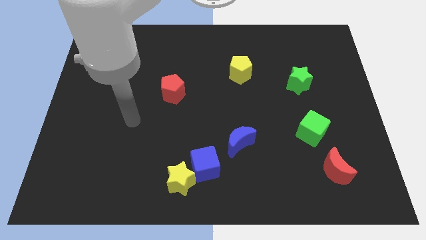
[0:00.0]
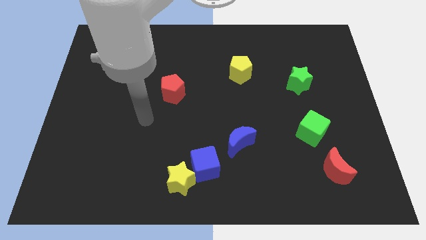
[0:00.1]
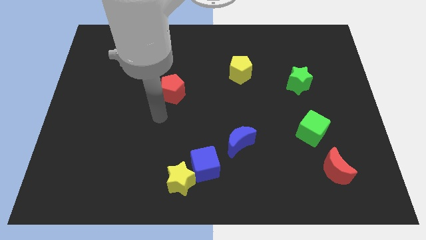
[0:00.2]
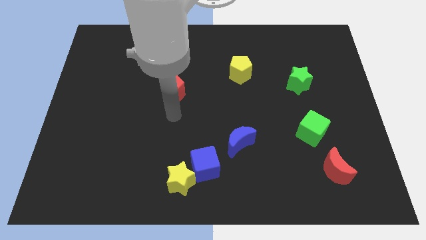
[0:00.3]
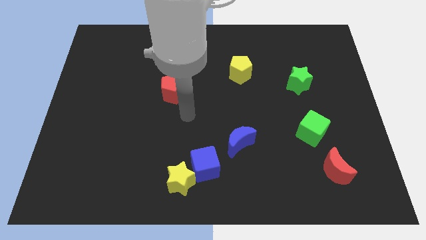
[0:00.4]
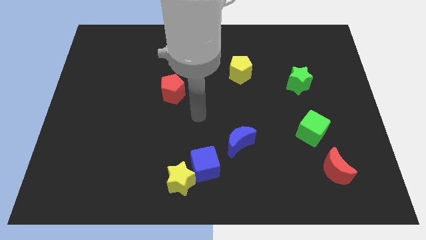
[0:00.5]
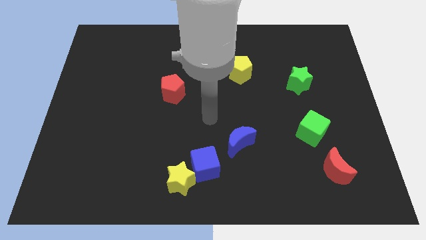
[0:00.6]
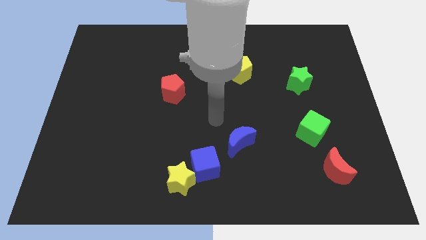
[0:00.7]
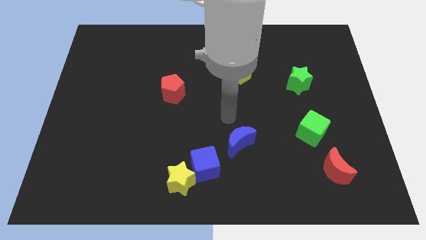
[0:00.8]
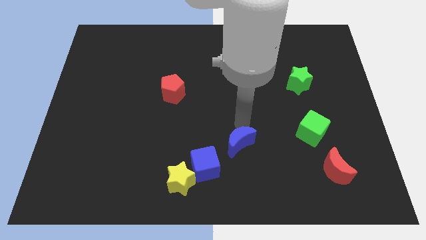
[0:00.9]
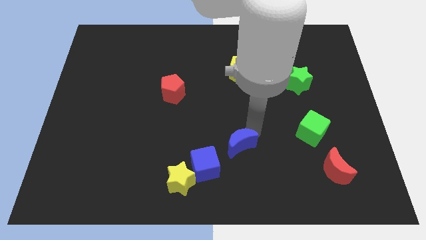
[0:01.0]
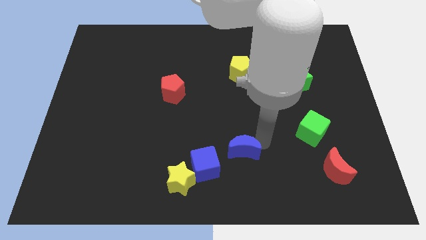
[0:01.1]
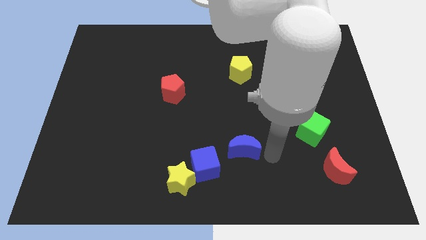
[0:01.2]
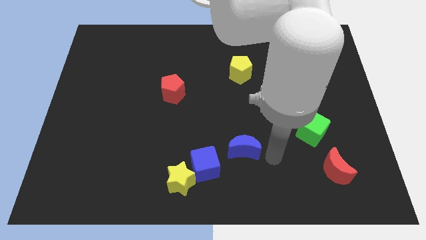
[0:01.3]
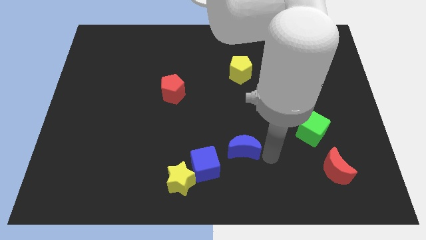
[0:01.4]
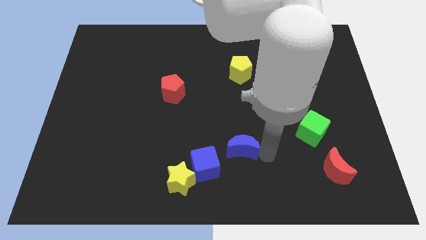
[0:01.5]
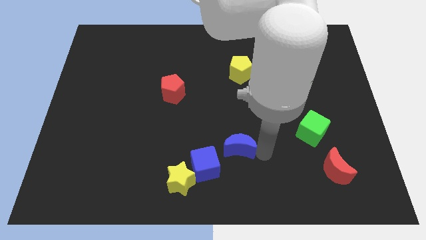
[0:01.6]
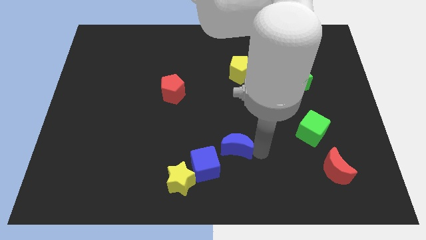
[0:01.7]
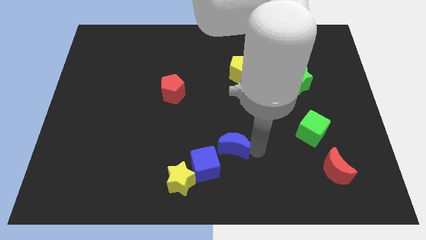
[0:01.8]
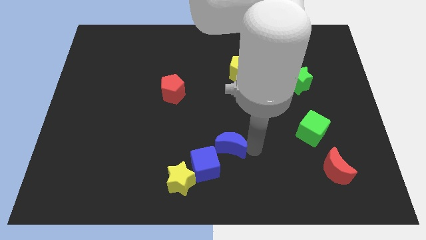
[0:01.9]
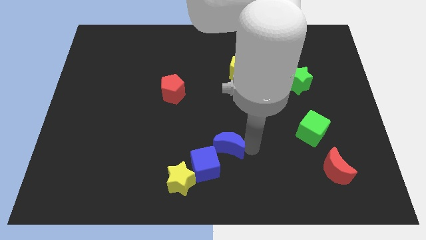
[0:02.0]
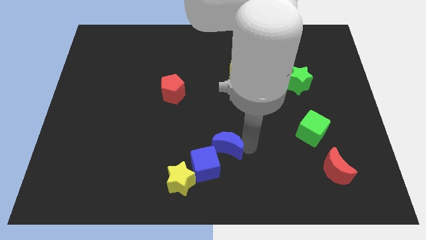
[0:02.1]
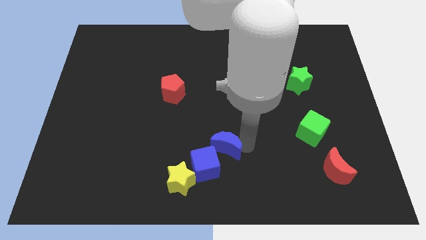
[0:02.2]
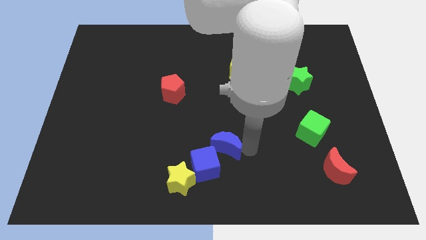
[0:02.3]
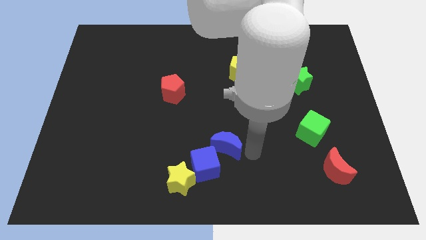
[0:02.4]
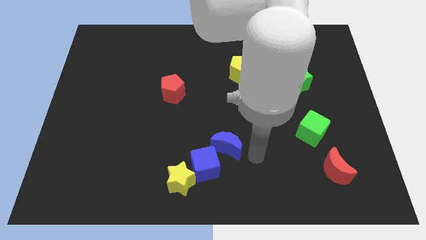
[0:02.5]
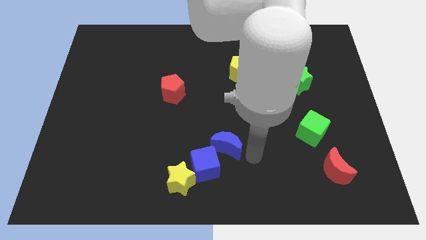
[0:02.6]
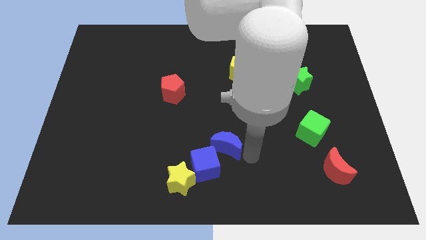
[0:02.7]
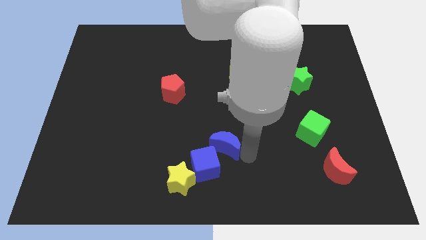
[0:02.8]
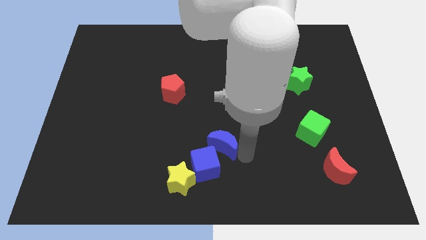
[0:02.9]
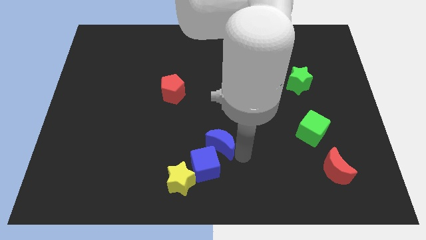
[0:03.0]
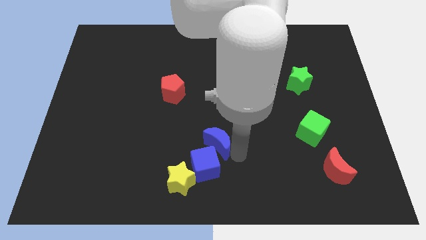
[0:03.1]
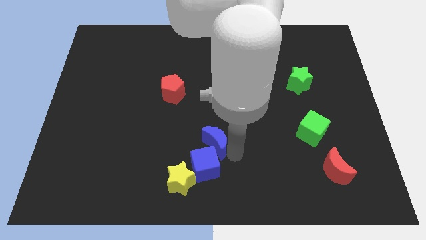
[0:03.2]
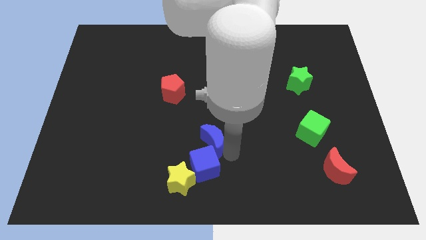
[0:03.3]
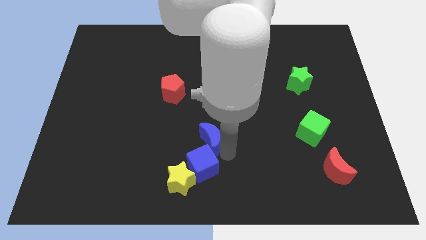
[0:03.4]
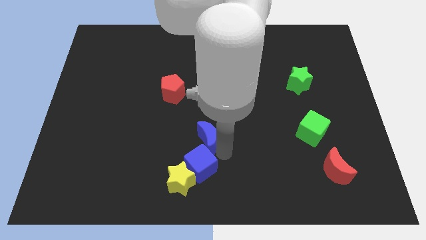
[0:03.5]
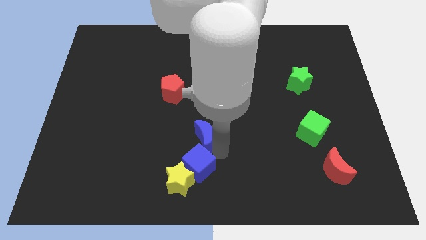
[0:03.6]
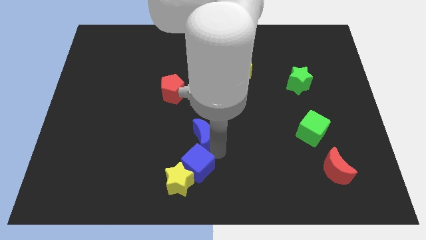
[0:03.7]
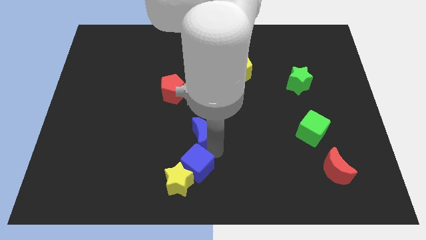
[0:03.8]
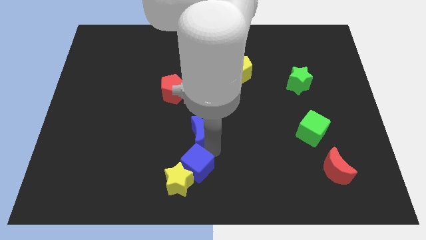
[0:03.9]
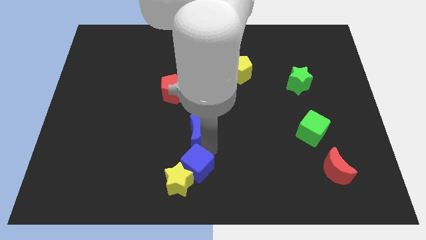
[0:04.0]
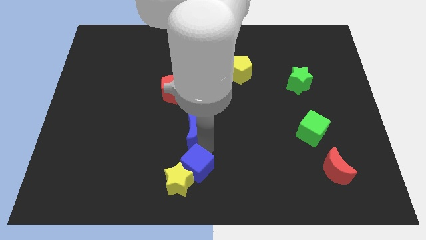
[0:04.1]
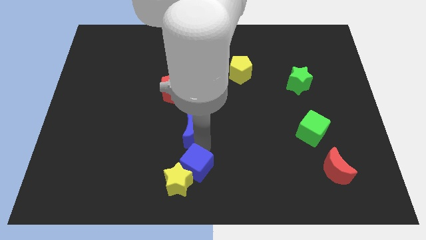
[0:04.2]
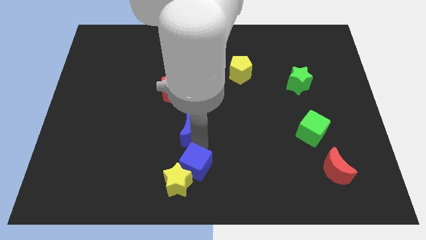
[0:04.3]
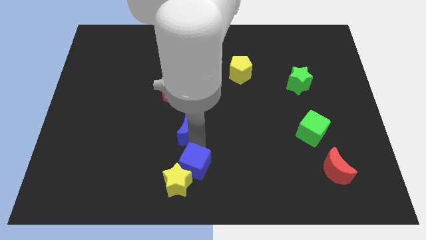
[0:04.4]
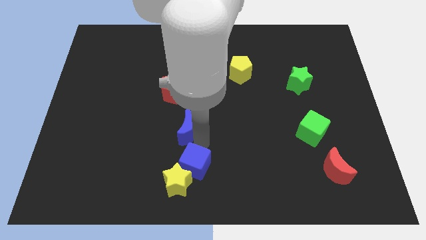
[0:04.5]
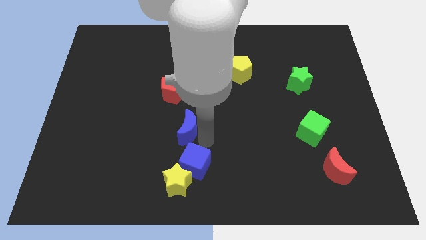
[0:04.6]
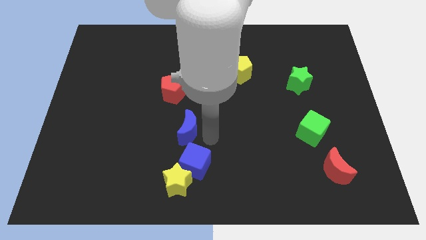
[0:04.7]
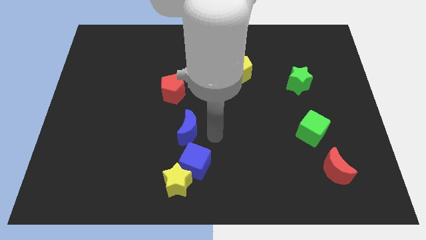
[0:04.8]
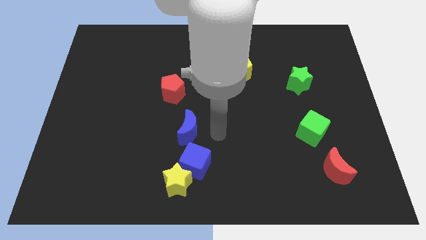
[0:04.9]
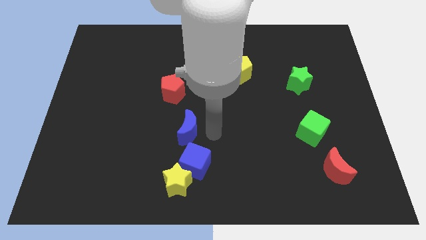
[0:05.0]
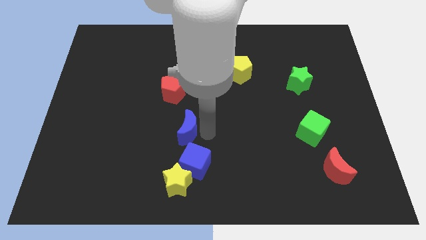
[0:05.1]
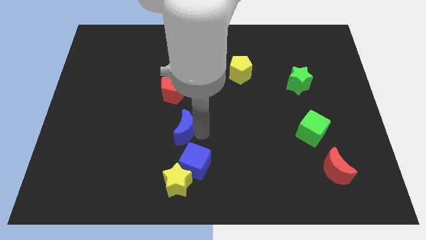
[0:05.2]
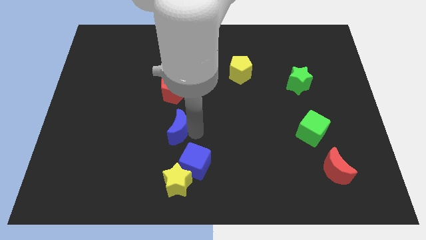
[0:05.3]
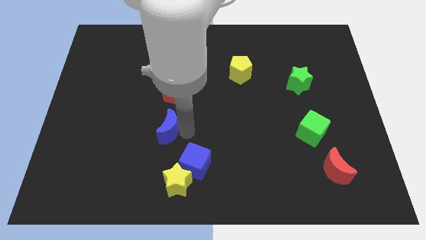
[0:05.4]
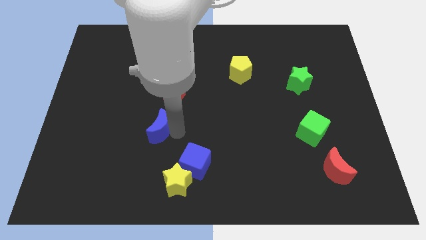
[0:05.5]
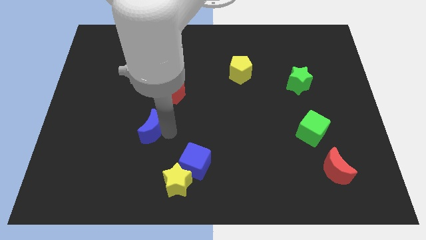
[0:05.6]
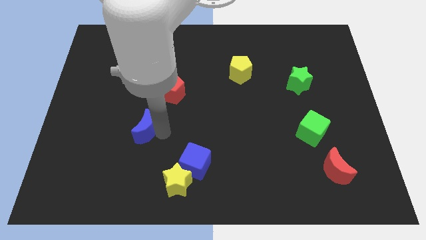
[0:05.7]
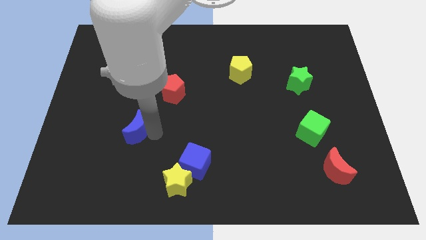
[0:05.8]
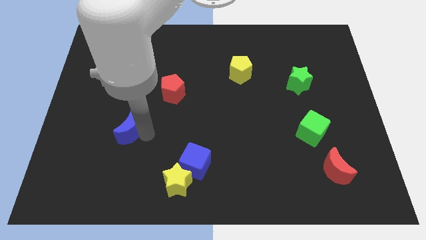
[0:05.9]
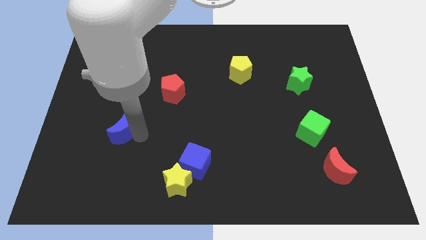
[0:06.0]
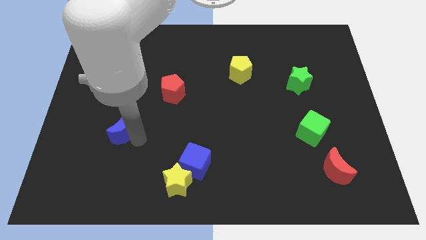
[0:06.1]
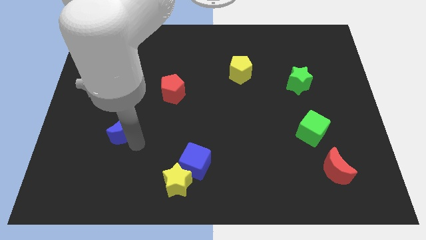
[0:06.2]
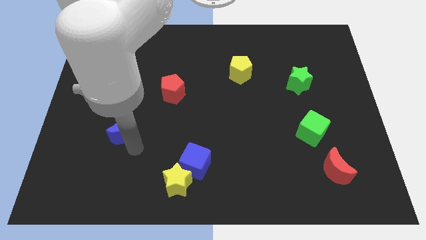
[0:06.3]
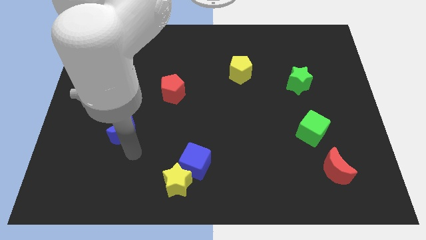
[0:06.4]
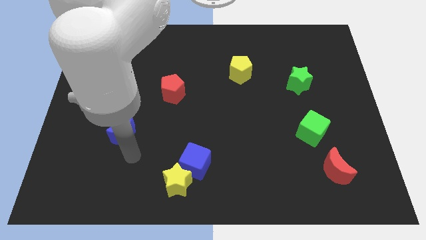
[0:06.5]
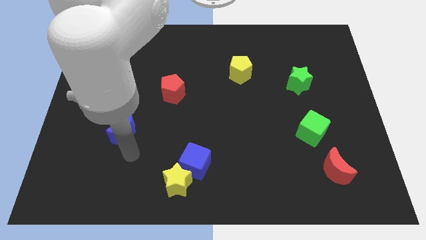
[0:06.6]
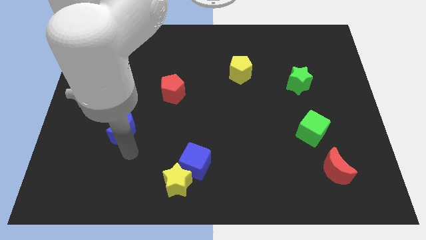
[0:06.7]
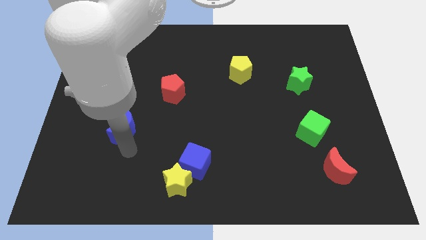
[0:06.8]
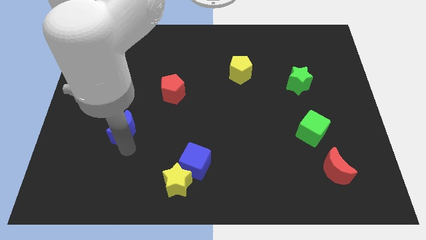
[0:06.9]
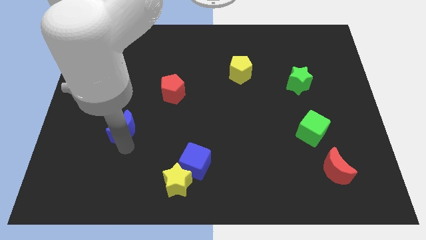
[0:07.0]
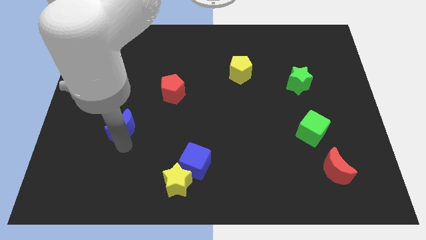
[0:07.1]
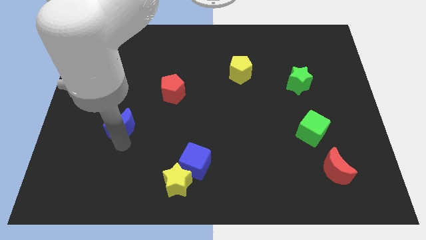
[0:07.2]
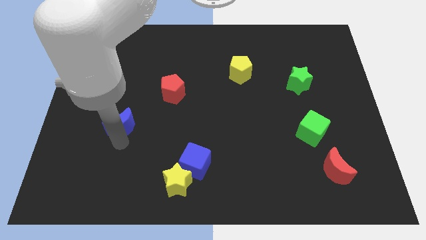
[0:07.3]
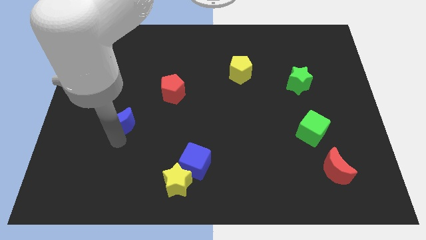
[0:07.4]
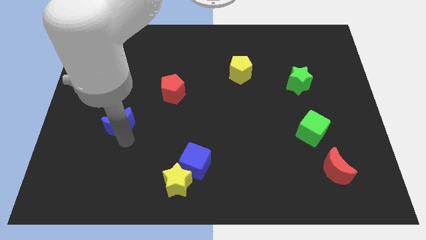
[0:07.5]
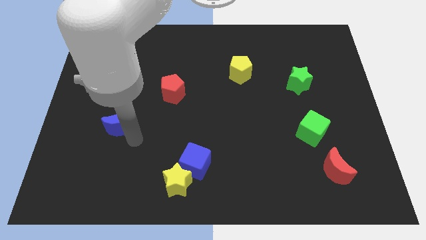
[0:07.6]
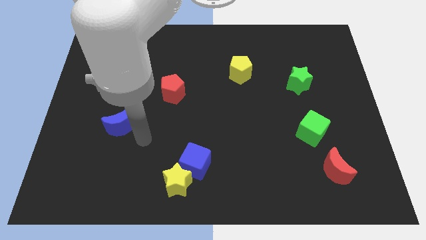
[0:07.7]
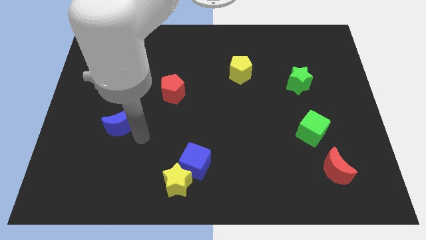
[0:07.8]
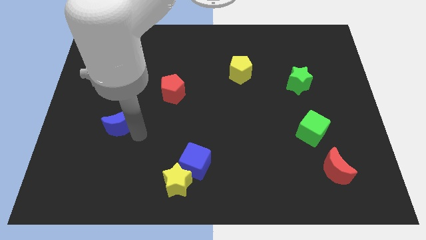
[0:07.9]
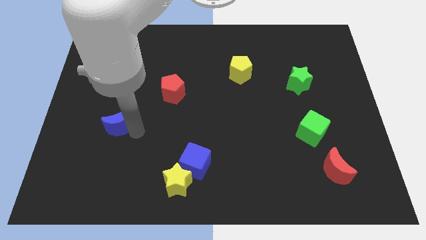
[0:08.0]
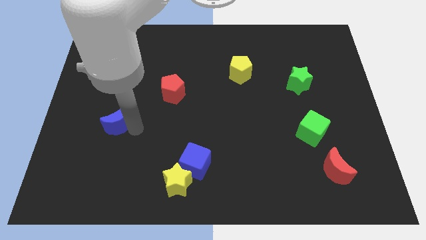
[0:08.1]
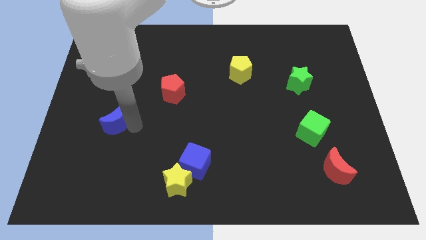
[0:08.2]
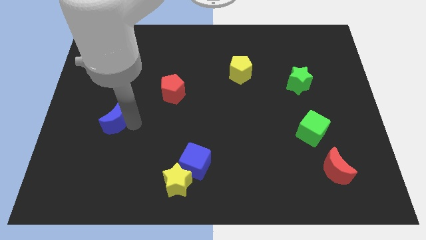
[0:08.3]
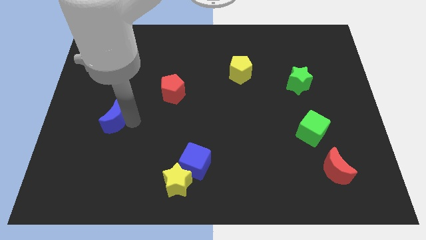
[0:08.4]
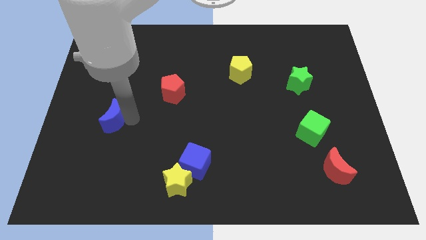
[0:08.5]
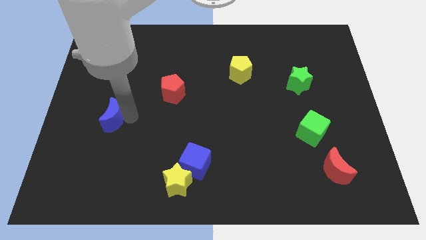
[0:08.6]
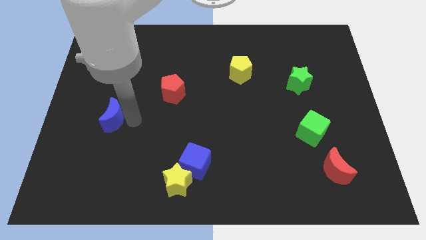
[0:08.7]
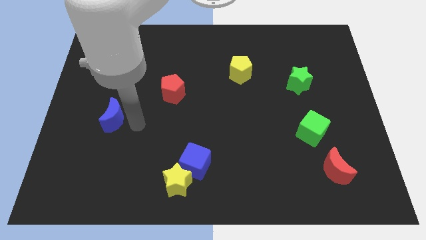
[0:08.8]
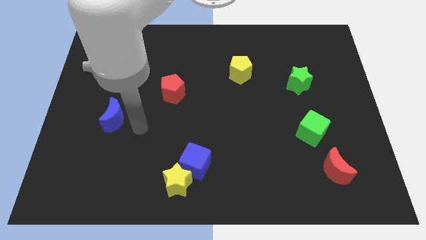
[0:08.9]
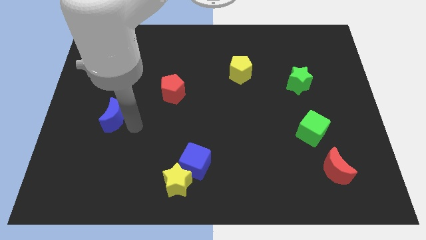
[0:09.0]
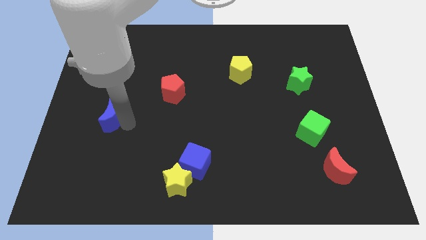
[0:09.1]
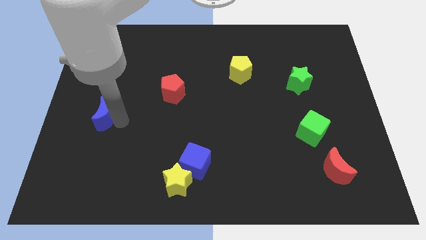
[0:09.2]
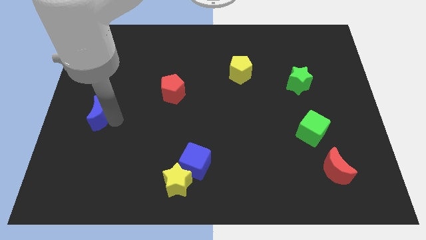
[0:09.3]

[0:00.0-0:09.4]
put the blue moon to the left side
